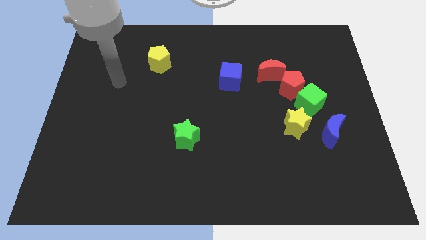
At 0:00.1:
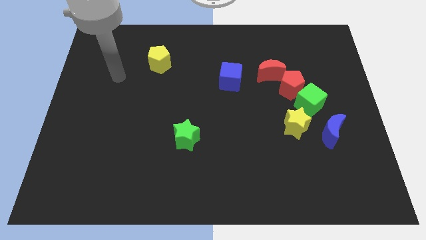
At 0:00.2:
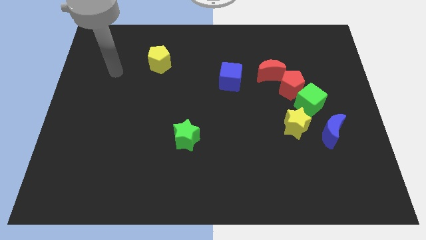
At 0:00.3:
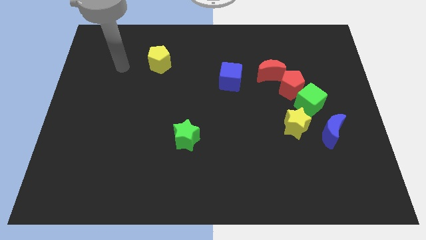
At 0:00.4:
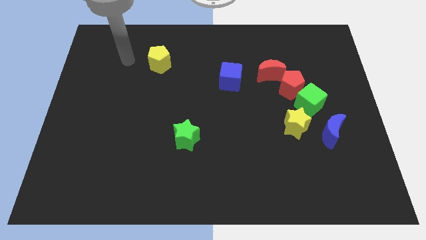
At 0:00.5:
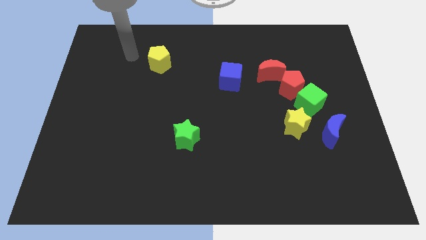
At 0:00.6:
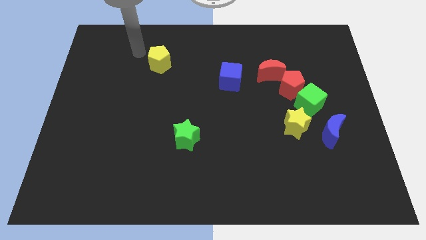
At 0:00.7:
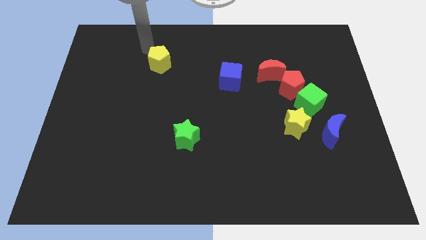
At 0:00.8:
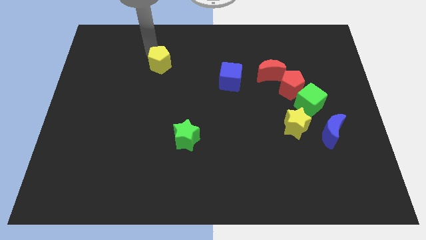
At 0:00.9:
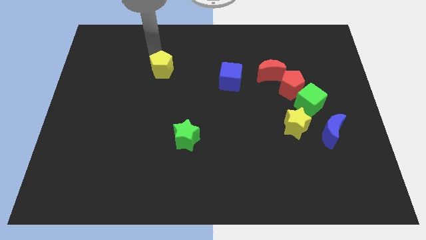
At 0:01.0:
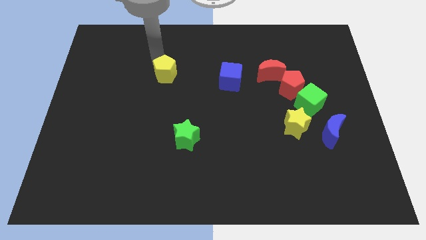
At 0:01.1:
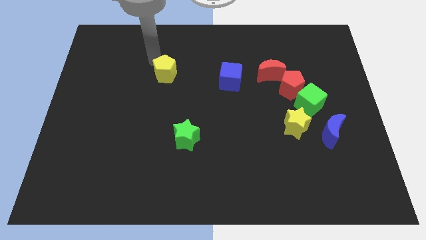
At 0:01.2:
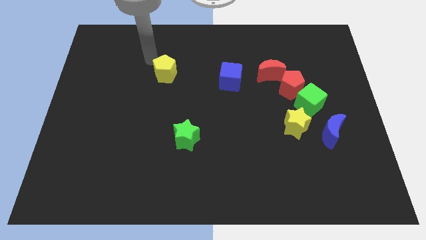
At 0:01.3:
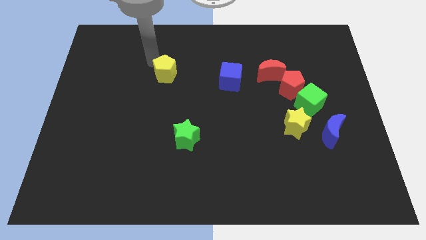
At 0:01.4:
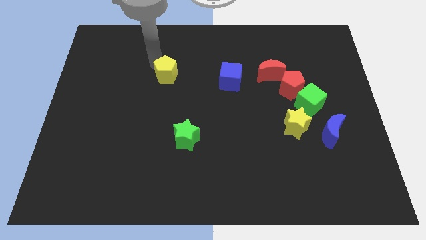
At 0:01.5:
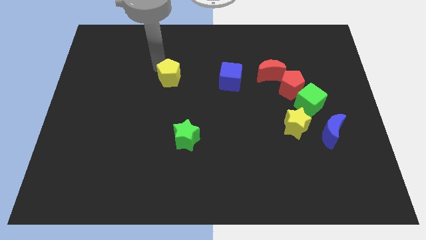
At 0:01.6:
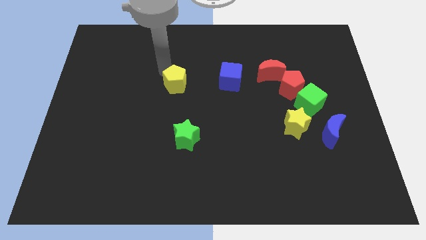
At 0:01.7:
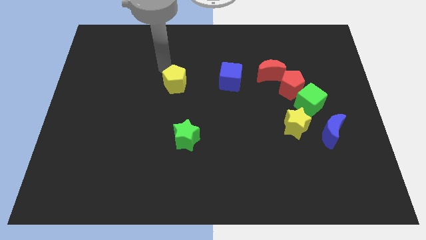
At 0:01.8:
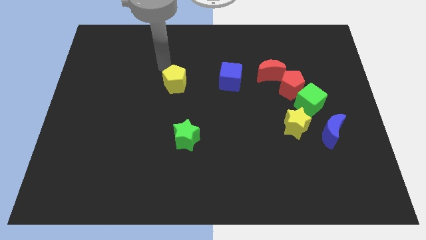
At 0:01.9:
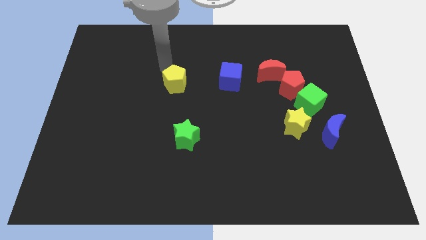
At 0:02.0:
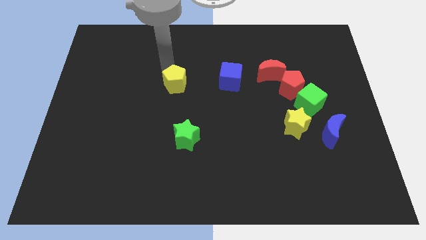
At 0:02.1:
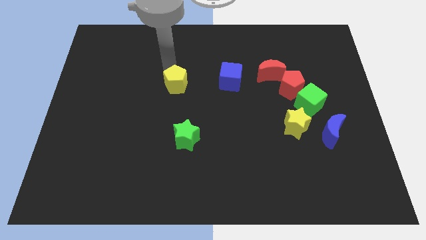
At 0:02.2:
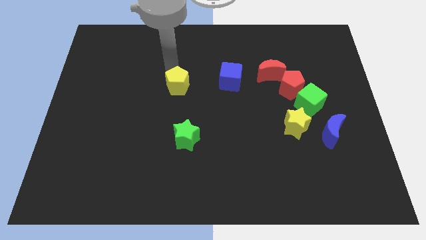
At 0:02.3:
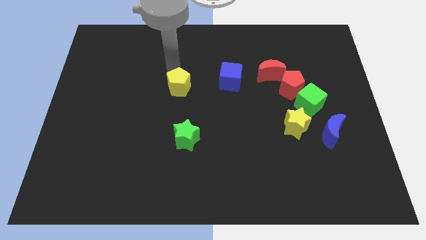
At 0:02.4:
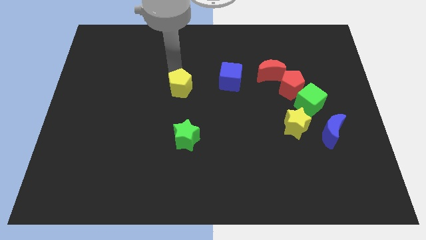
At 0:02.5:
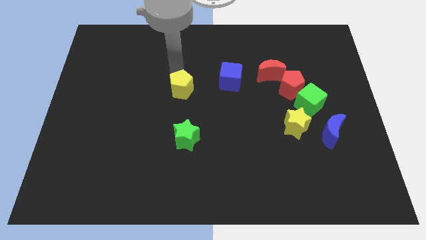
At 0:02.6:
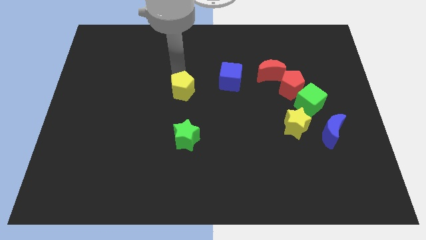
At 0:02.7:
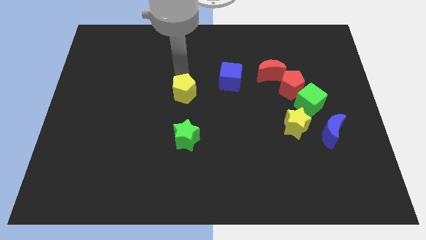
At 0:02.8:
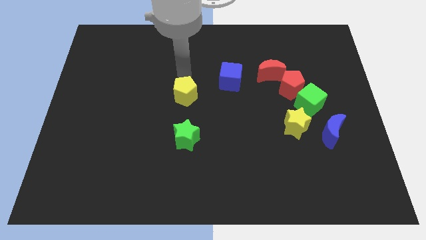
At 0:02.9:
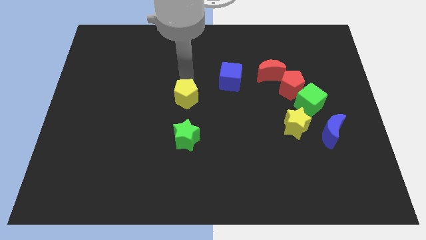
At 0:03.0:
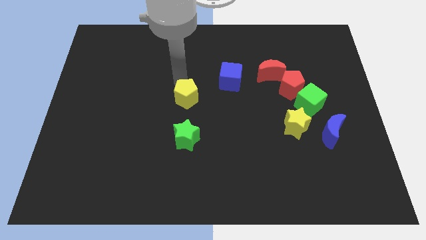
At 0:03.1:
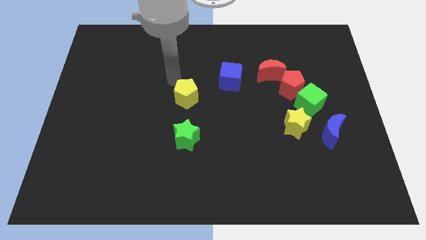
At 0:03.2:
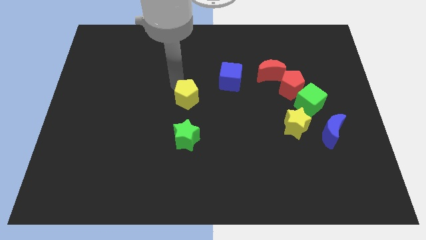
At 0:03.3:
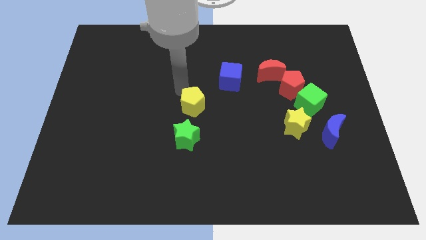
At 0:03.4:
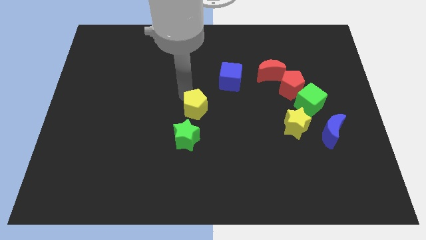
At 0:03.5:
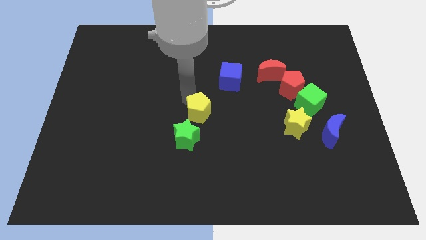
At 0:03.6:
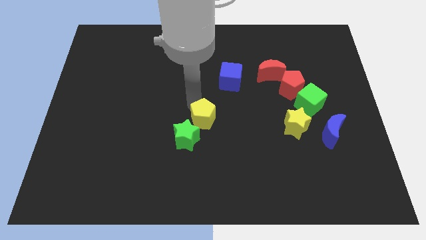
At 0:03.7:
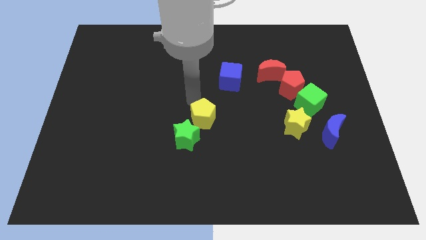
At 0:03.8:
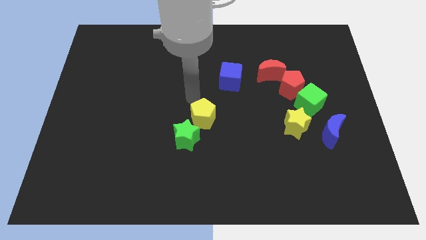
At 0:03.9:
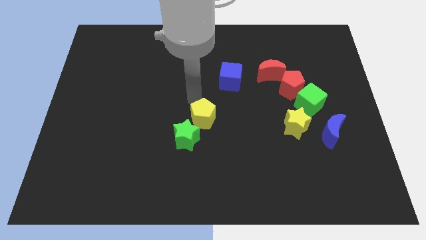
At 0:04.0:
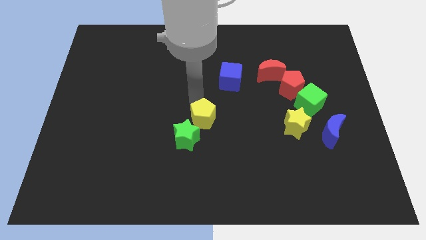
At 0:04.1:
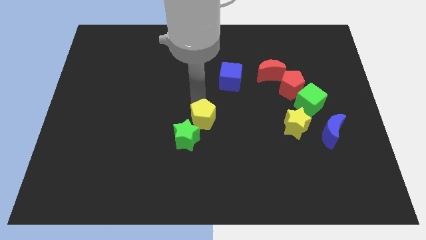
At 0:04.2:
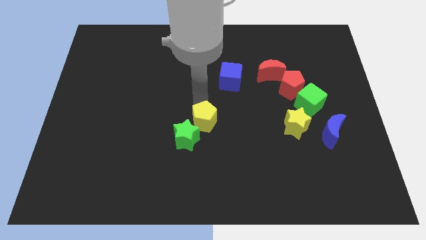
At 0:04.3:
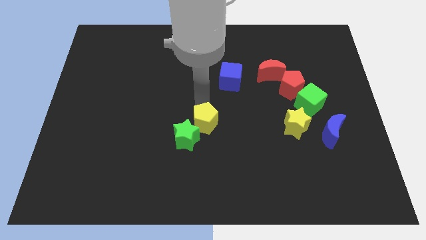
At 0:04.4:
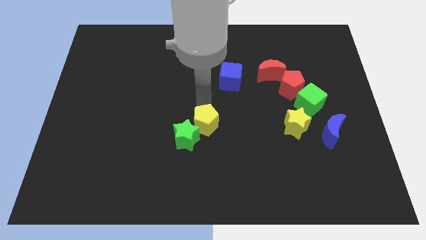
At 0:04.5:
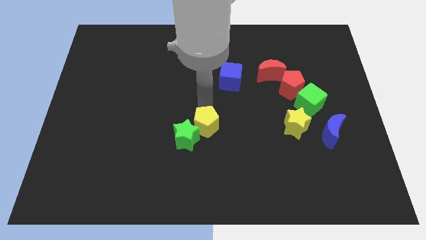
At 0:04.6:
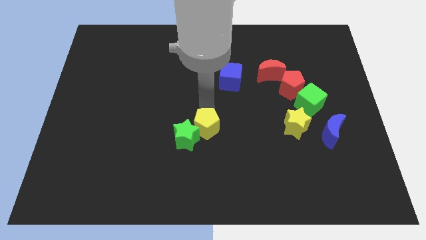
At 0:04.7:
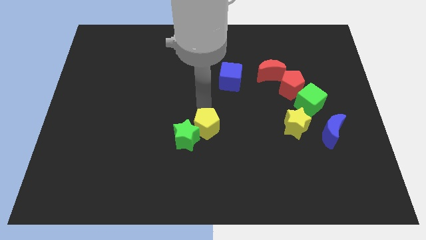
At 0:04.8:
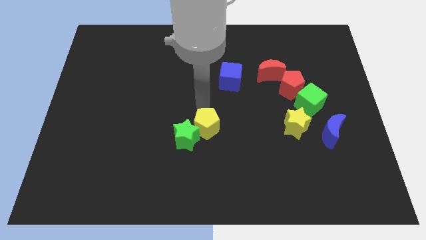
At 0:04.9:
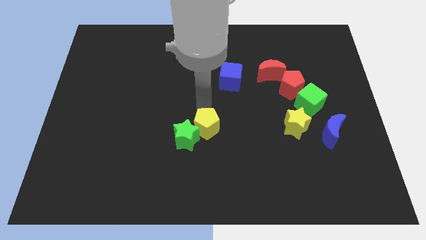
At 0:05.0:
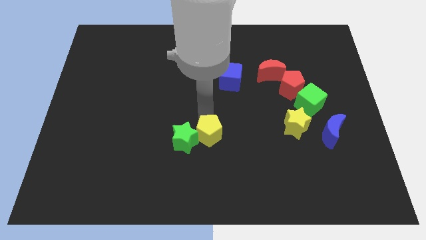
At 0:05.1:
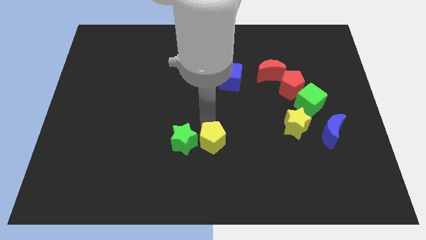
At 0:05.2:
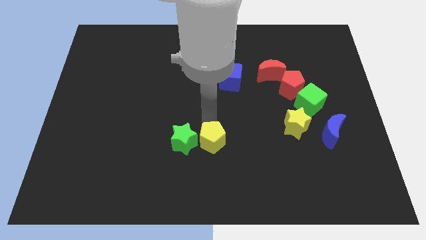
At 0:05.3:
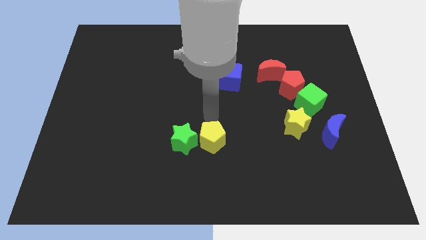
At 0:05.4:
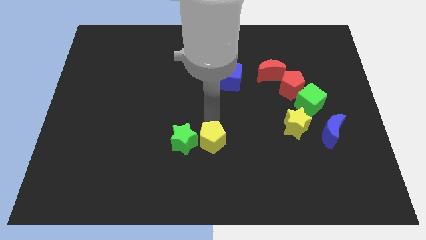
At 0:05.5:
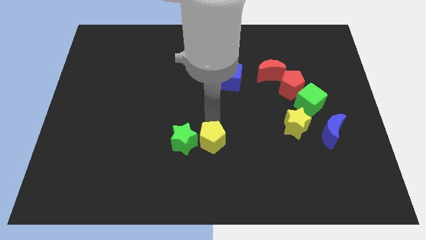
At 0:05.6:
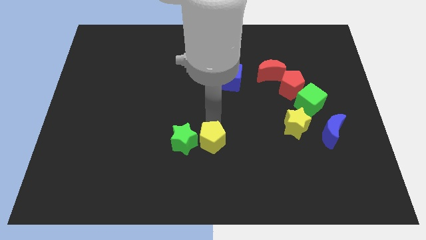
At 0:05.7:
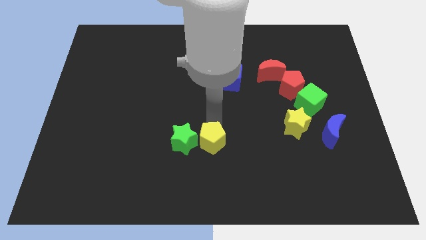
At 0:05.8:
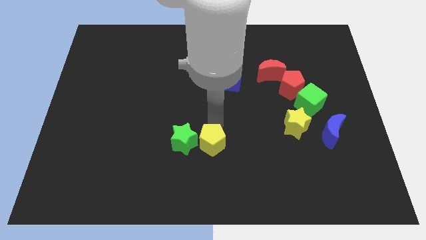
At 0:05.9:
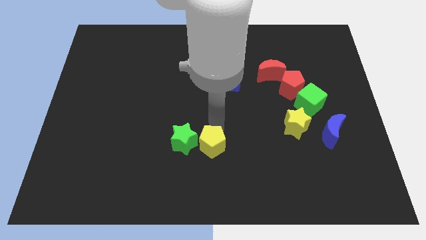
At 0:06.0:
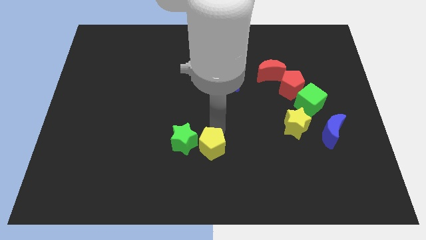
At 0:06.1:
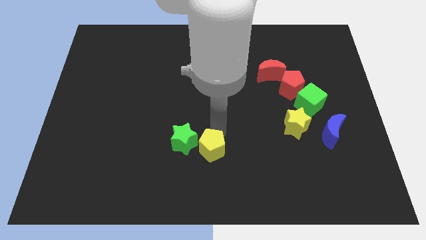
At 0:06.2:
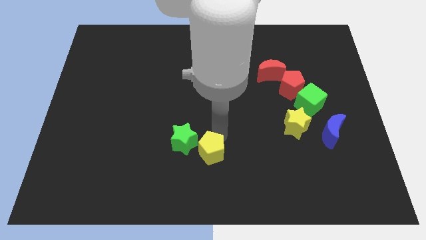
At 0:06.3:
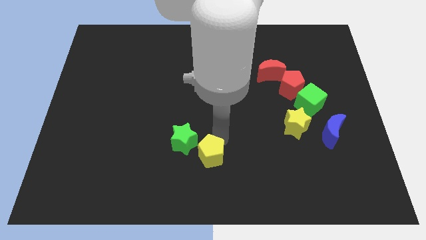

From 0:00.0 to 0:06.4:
slide the yellow pentagon to the bottom side
